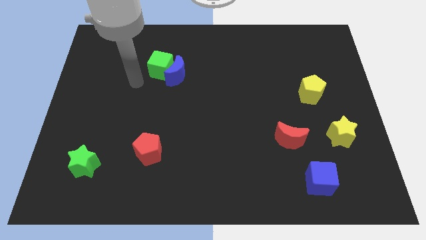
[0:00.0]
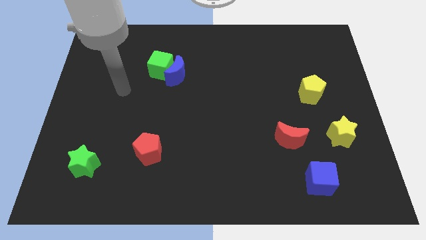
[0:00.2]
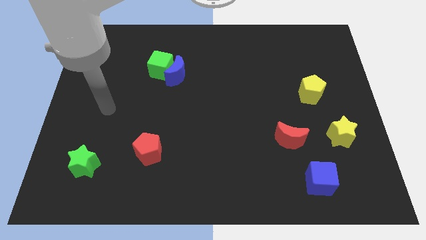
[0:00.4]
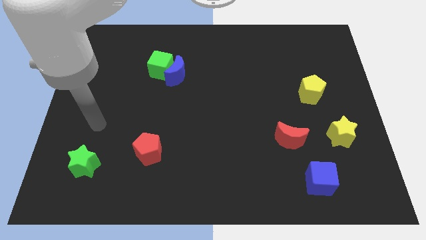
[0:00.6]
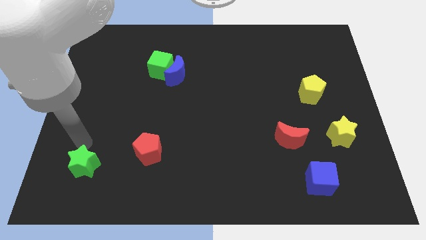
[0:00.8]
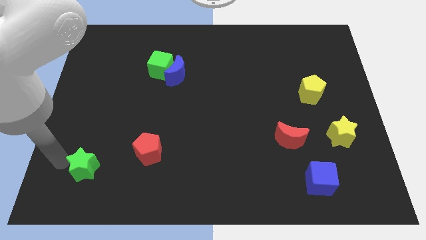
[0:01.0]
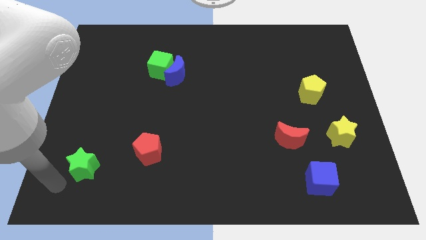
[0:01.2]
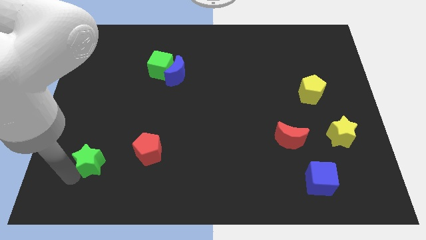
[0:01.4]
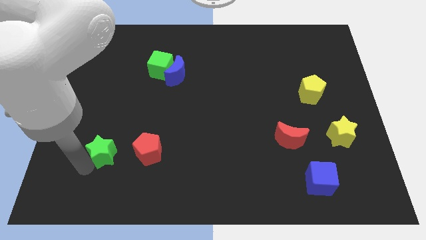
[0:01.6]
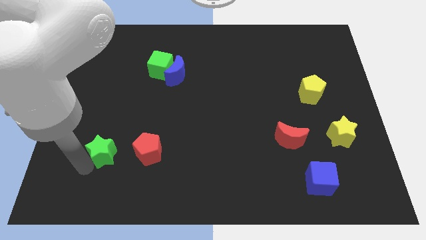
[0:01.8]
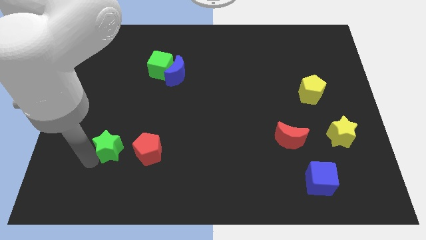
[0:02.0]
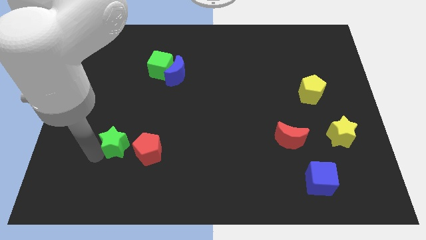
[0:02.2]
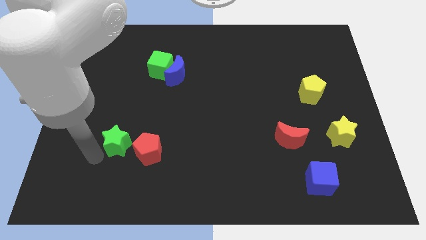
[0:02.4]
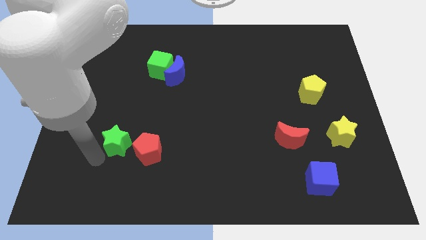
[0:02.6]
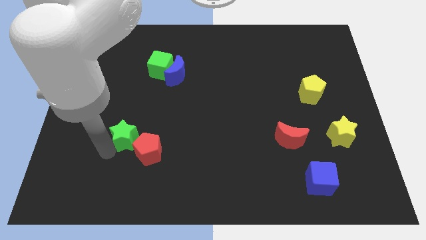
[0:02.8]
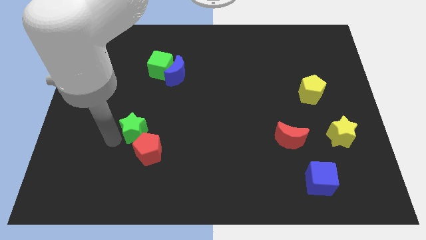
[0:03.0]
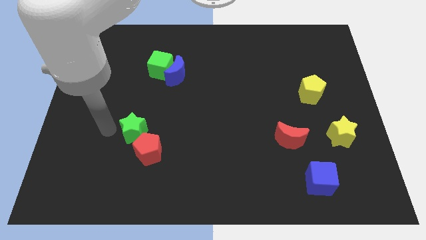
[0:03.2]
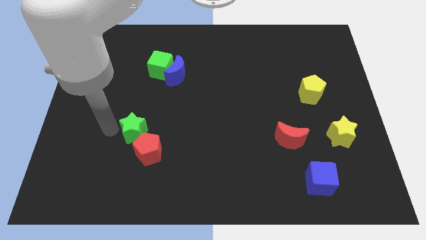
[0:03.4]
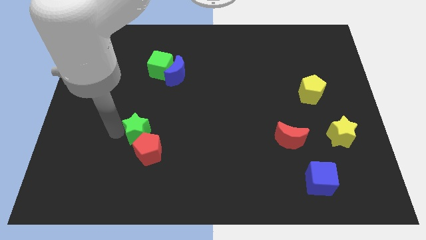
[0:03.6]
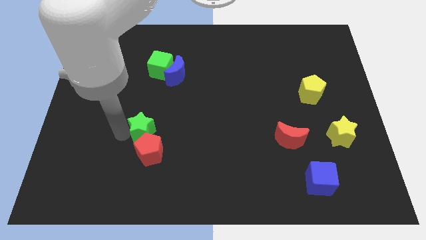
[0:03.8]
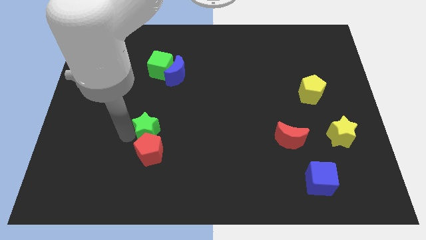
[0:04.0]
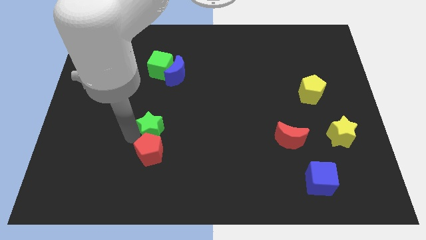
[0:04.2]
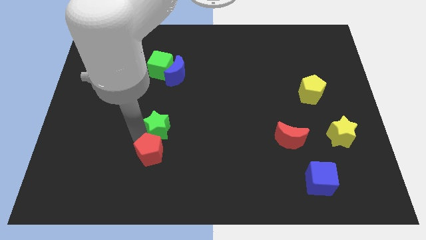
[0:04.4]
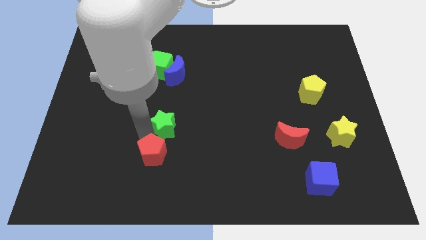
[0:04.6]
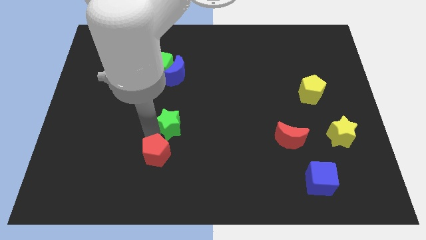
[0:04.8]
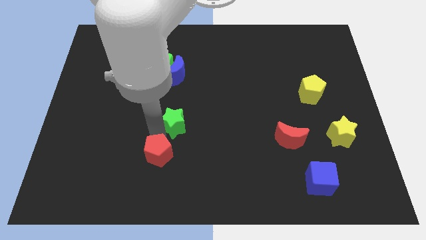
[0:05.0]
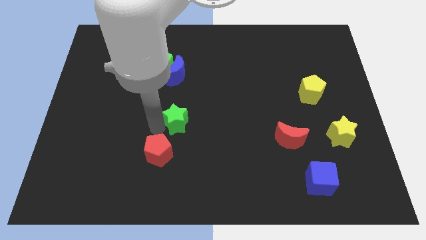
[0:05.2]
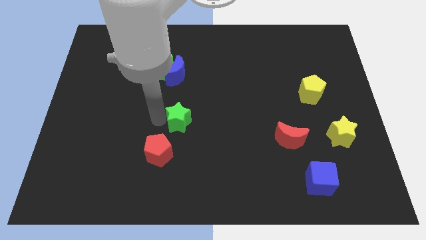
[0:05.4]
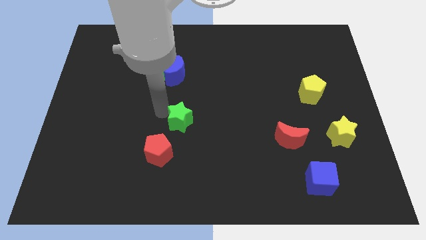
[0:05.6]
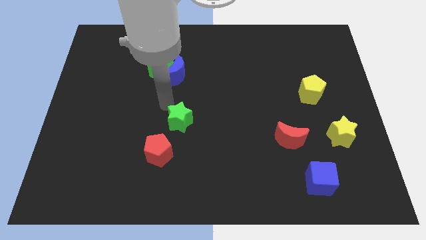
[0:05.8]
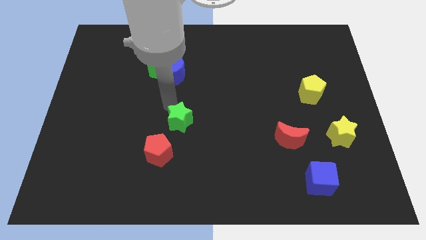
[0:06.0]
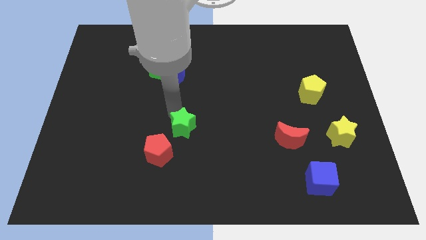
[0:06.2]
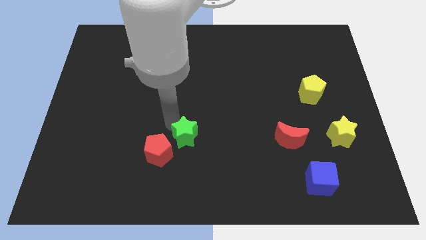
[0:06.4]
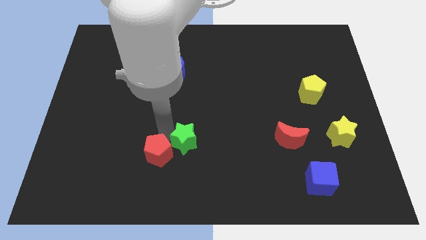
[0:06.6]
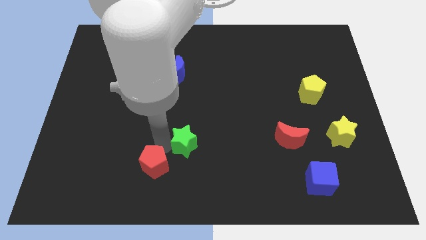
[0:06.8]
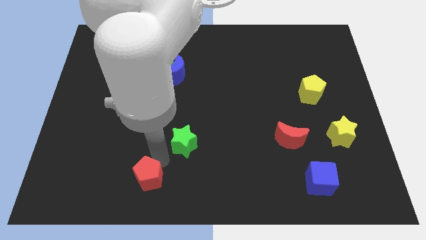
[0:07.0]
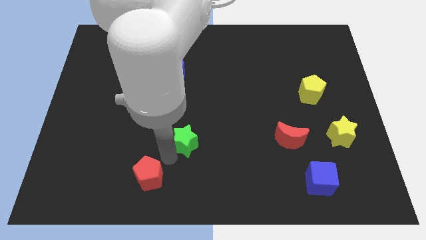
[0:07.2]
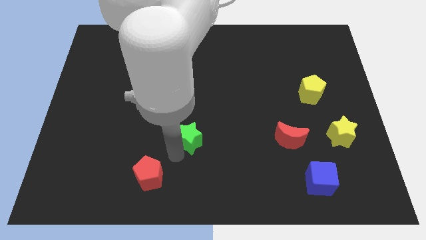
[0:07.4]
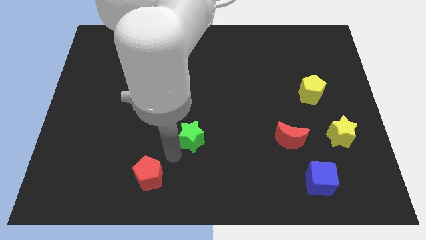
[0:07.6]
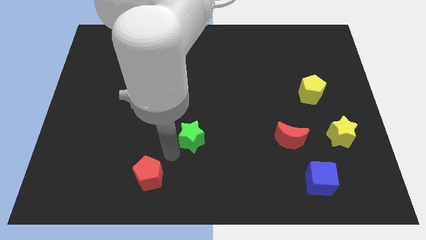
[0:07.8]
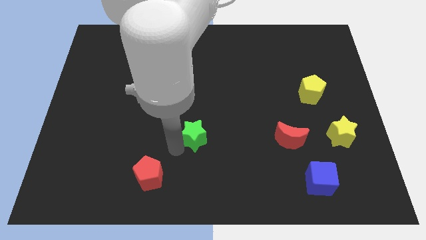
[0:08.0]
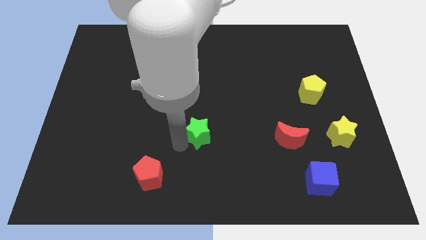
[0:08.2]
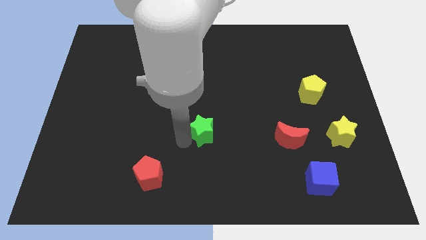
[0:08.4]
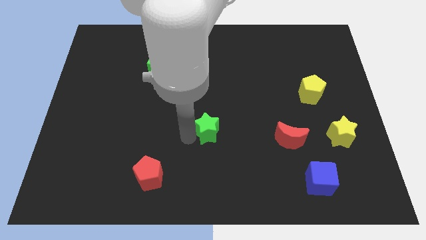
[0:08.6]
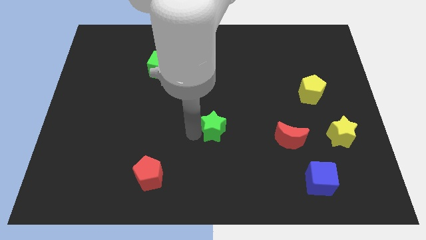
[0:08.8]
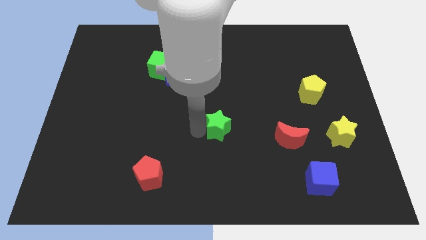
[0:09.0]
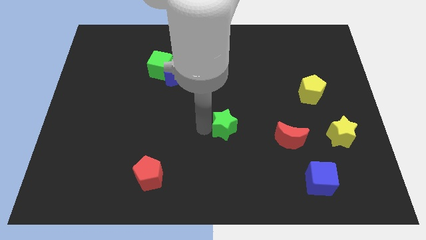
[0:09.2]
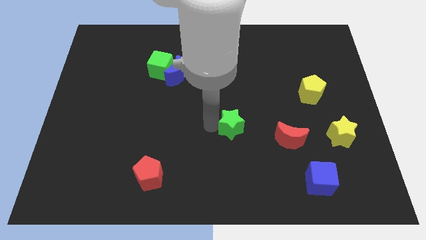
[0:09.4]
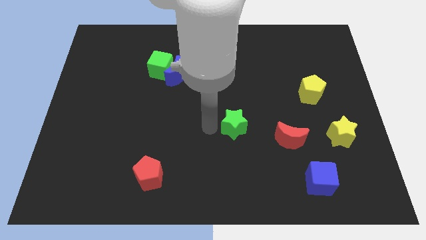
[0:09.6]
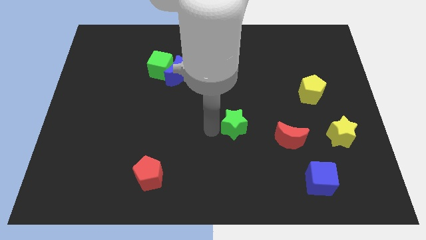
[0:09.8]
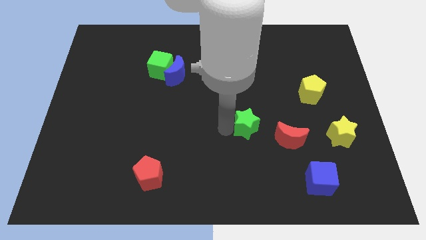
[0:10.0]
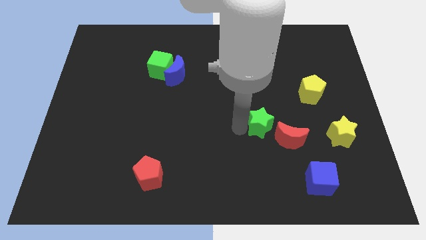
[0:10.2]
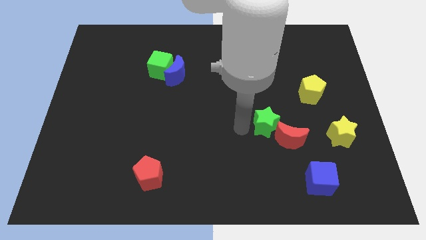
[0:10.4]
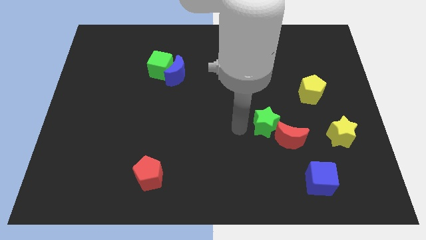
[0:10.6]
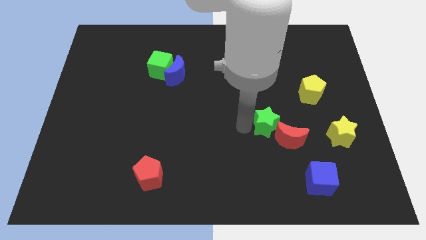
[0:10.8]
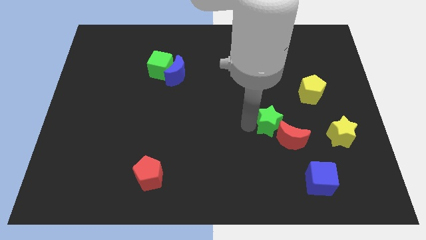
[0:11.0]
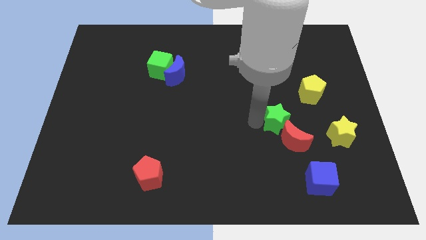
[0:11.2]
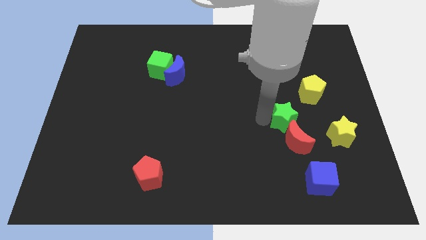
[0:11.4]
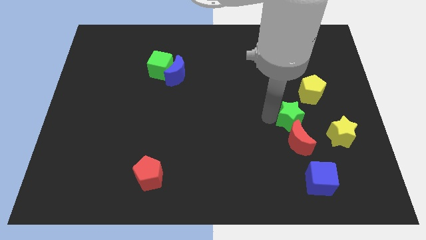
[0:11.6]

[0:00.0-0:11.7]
put the green star to the top right side of the red moon

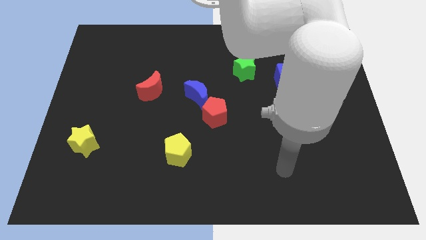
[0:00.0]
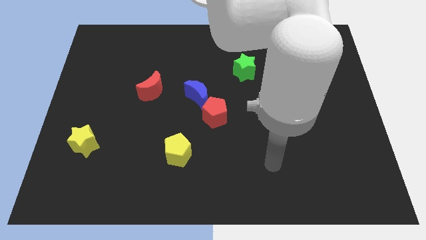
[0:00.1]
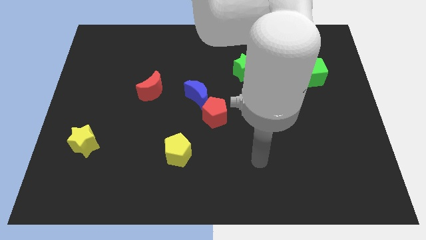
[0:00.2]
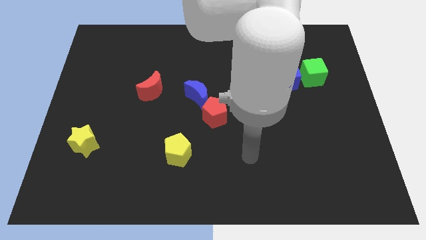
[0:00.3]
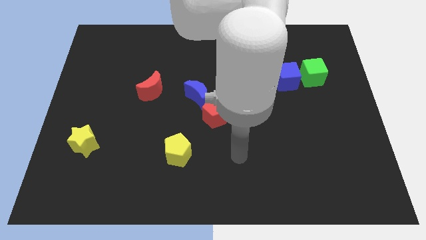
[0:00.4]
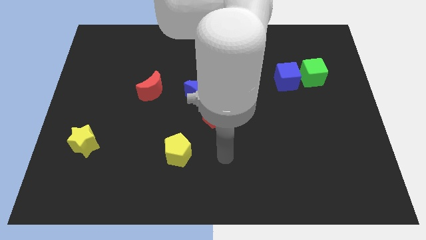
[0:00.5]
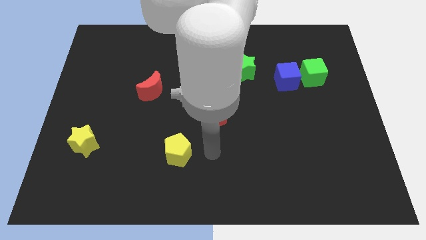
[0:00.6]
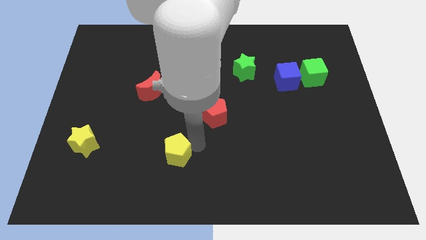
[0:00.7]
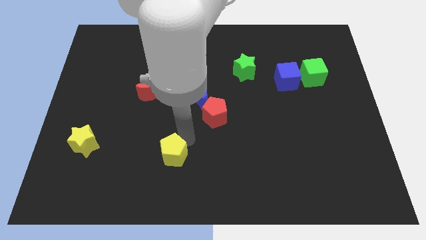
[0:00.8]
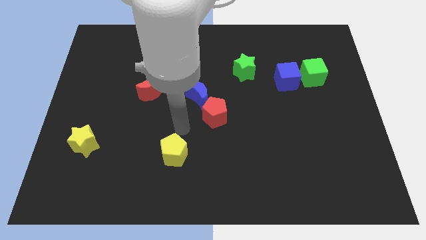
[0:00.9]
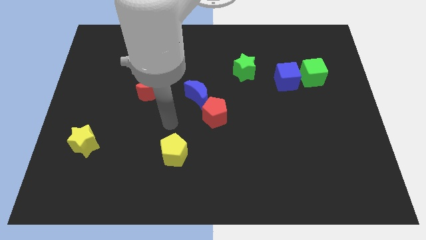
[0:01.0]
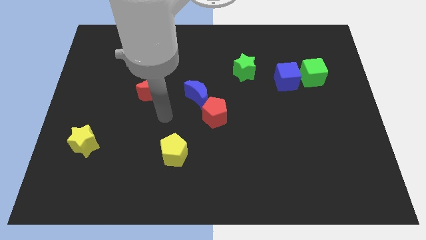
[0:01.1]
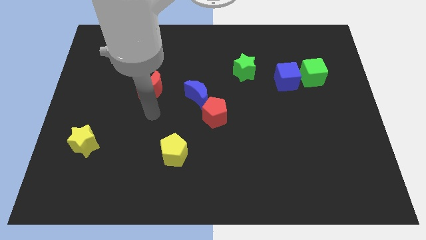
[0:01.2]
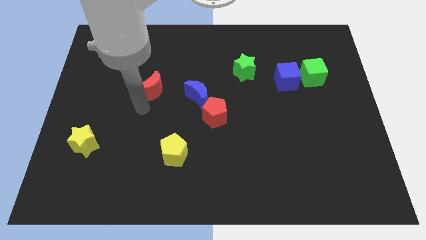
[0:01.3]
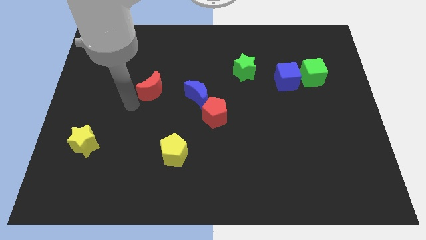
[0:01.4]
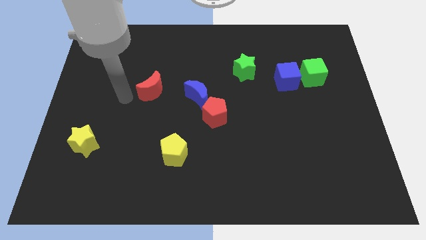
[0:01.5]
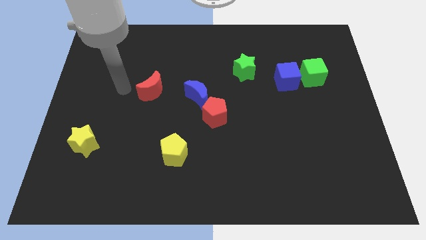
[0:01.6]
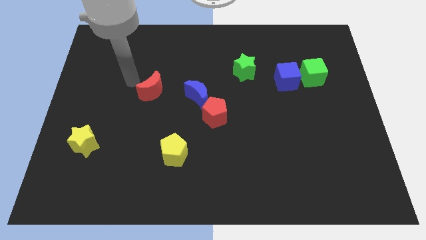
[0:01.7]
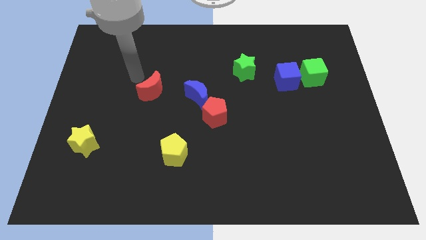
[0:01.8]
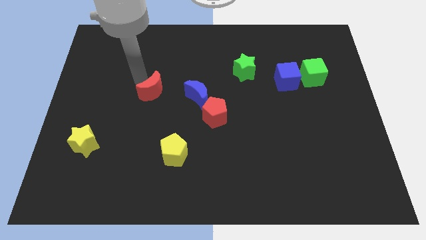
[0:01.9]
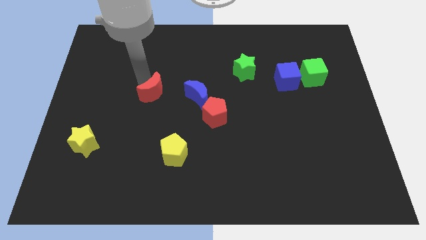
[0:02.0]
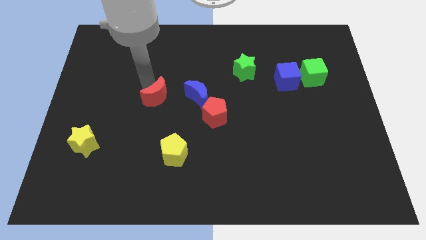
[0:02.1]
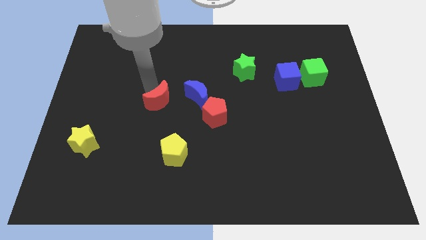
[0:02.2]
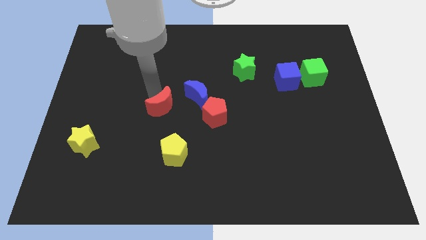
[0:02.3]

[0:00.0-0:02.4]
move the red moon to the top of the yellow pentagon
